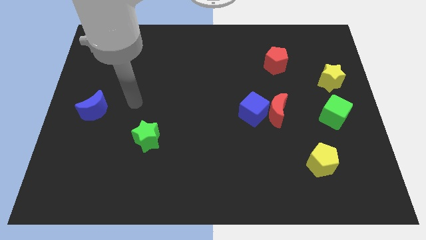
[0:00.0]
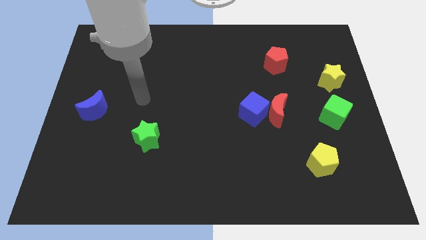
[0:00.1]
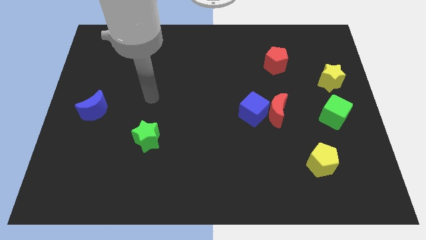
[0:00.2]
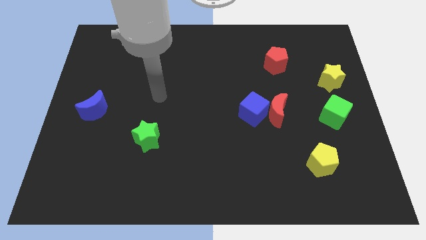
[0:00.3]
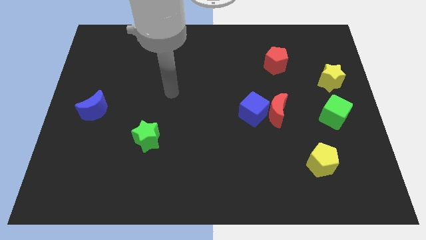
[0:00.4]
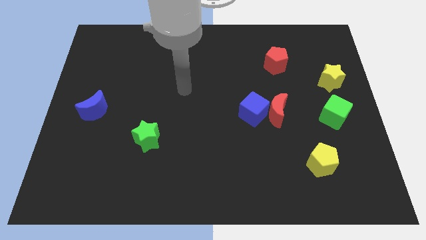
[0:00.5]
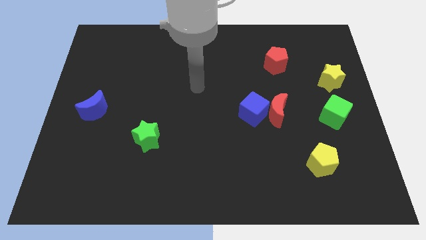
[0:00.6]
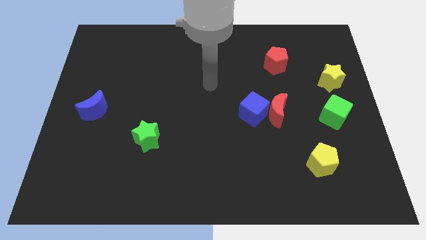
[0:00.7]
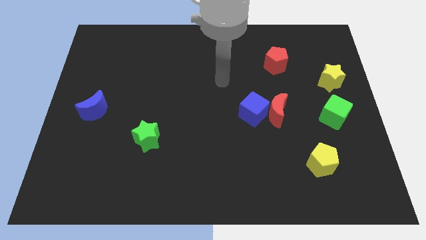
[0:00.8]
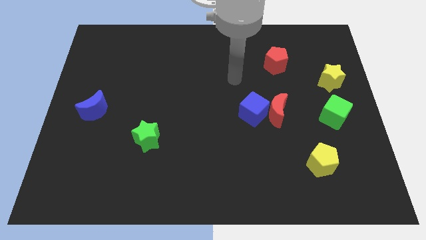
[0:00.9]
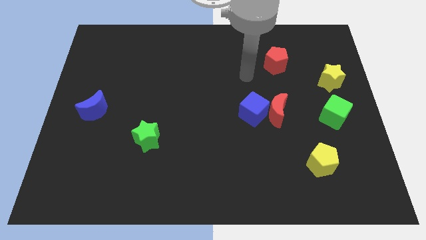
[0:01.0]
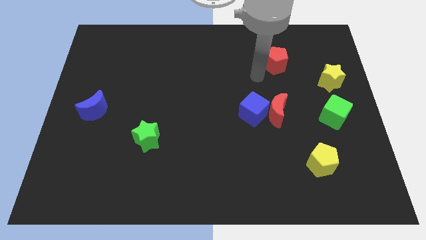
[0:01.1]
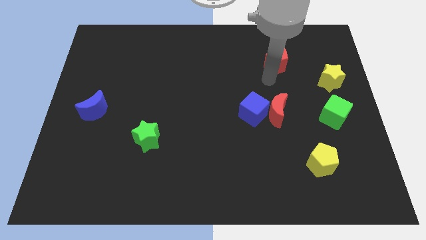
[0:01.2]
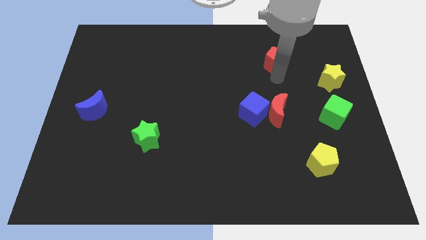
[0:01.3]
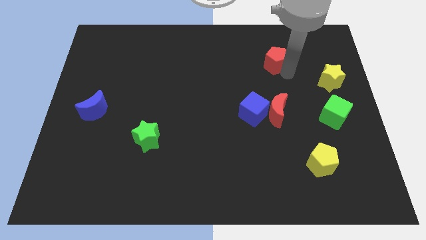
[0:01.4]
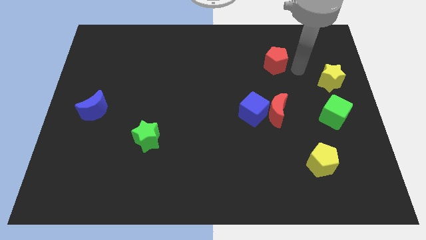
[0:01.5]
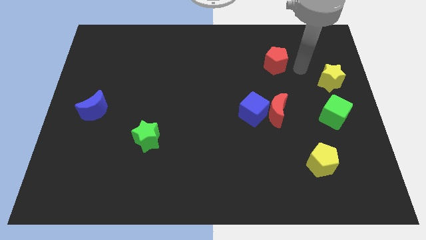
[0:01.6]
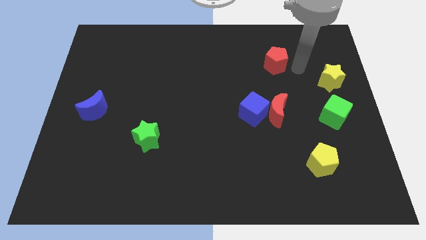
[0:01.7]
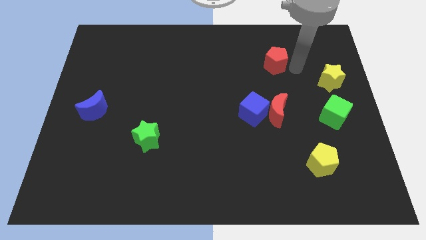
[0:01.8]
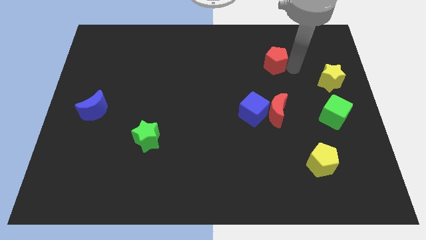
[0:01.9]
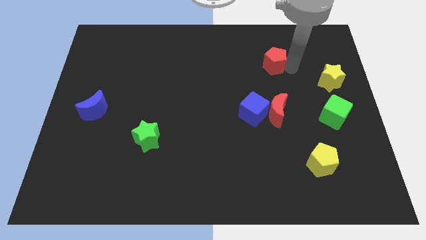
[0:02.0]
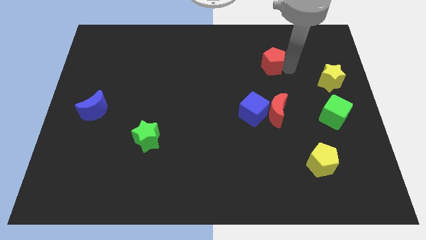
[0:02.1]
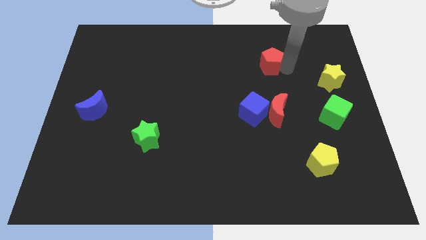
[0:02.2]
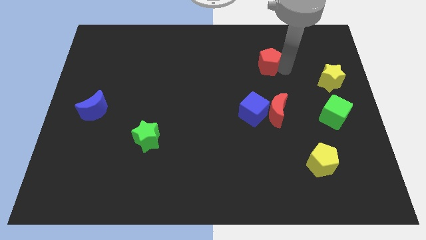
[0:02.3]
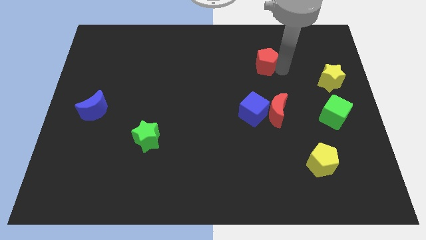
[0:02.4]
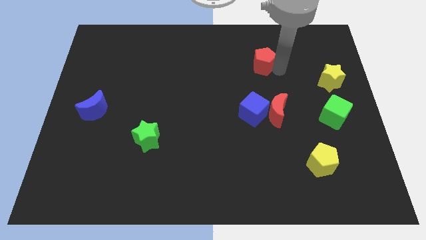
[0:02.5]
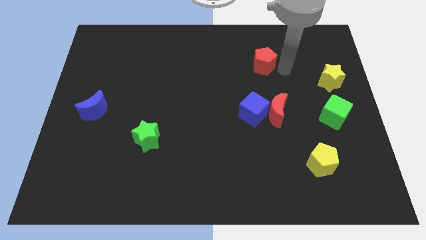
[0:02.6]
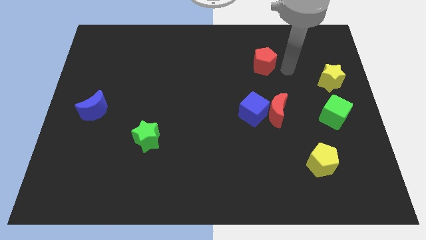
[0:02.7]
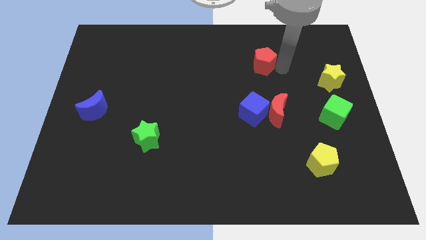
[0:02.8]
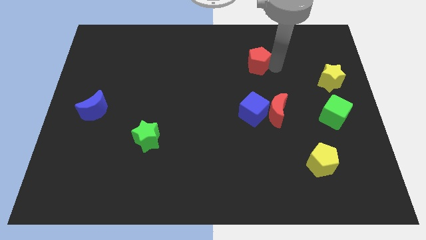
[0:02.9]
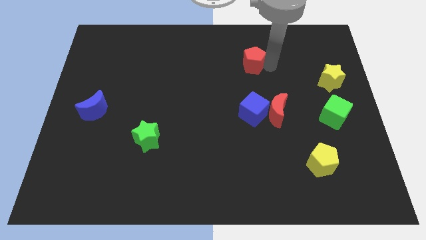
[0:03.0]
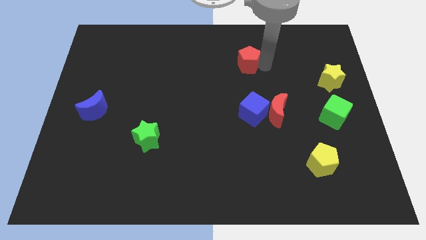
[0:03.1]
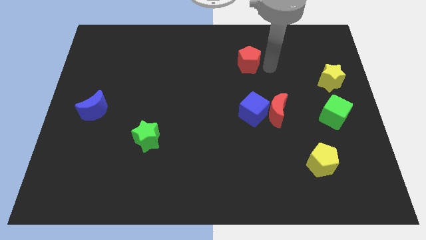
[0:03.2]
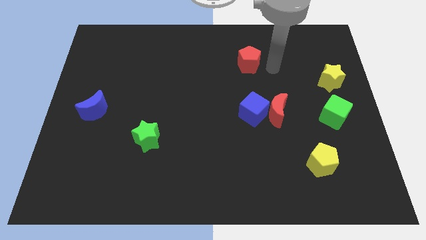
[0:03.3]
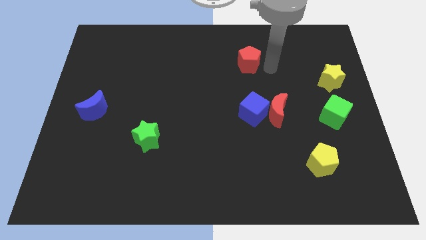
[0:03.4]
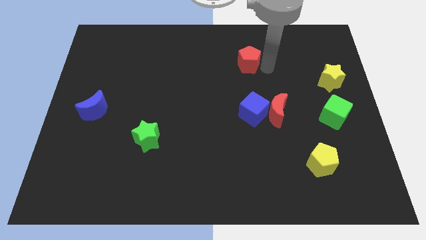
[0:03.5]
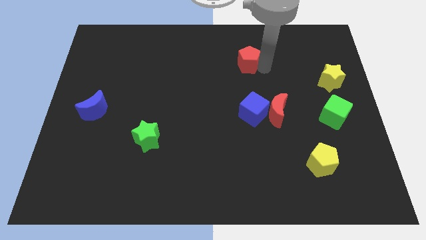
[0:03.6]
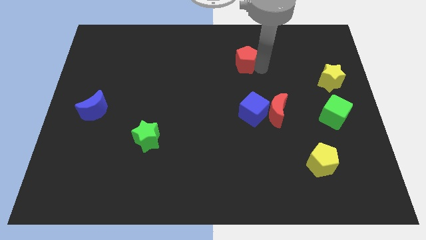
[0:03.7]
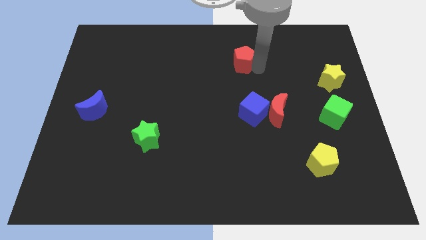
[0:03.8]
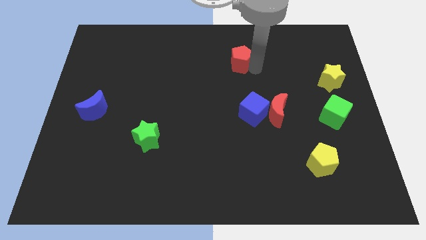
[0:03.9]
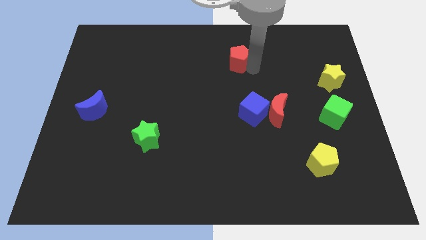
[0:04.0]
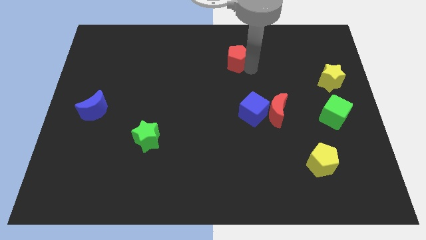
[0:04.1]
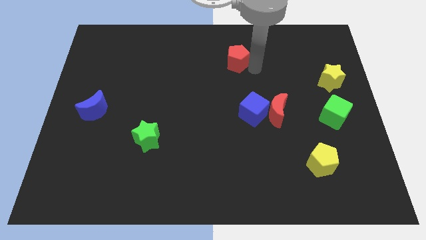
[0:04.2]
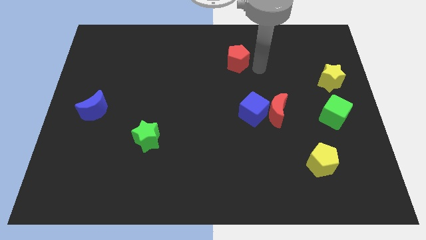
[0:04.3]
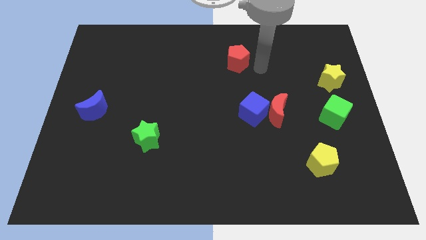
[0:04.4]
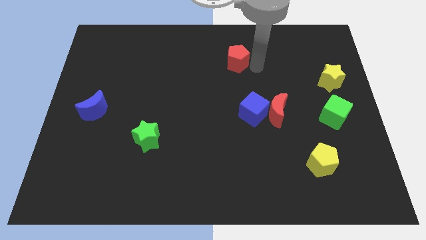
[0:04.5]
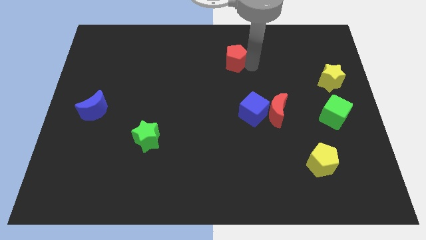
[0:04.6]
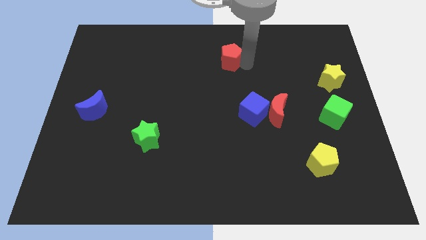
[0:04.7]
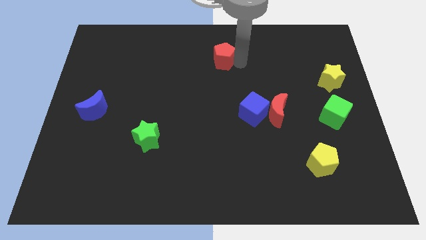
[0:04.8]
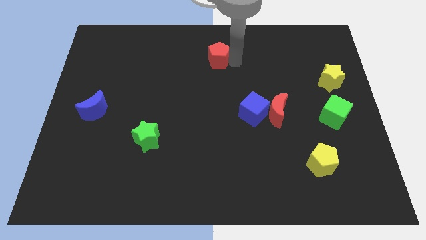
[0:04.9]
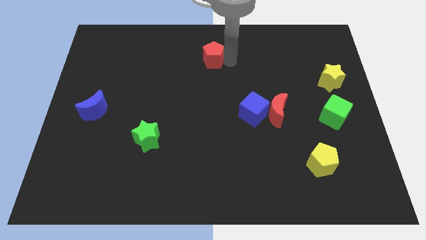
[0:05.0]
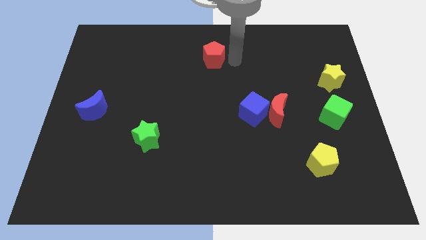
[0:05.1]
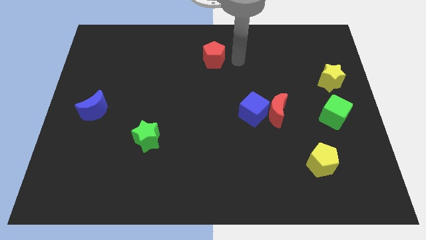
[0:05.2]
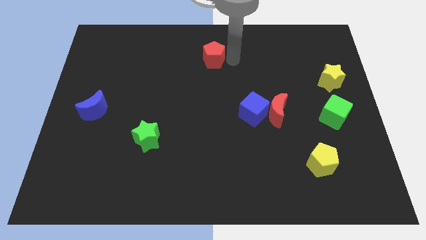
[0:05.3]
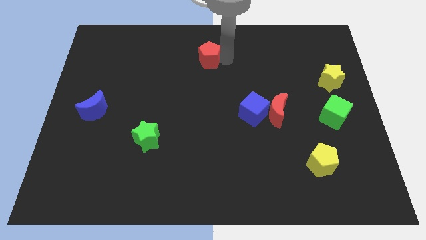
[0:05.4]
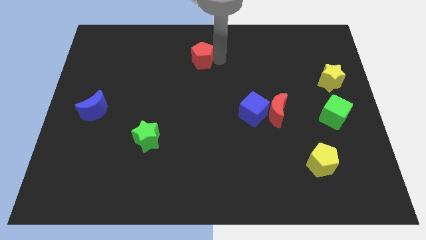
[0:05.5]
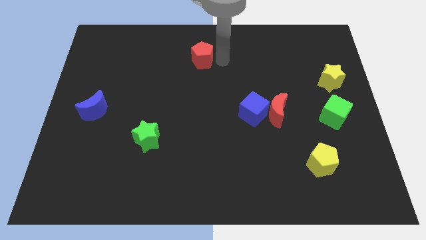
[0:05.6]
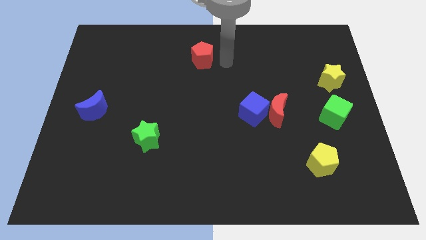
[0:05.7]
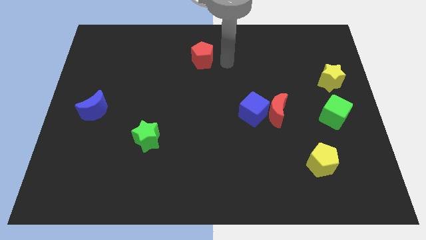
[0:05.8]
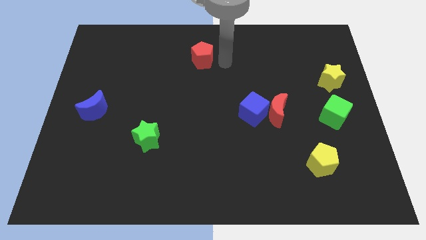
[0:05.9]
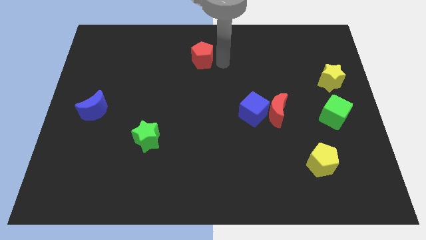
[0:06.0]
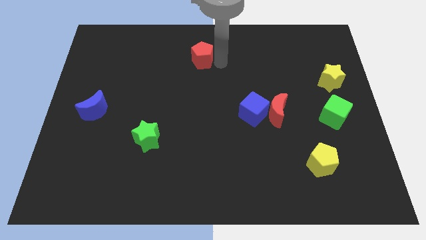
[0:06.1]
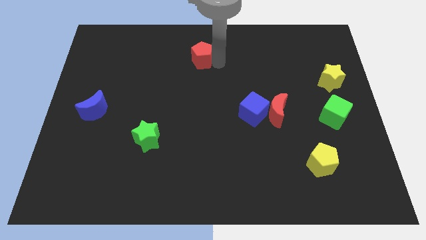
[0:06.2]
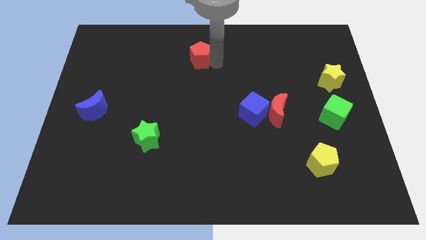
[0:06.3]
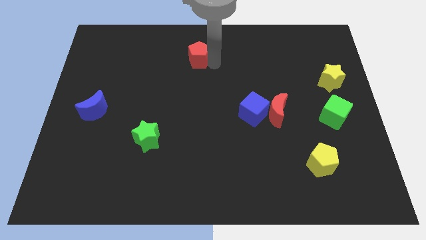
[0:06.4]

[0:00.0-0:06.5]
move the red pentagon to the left

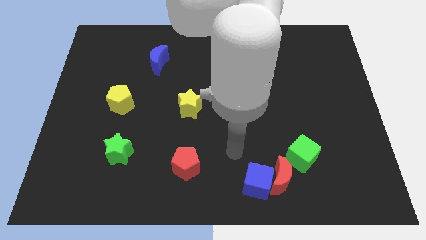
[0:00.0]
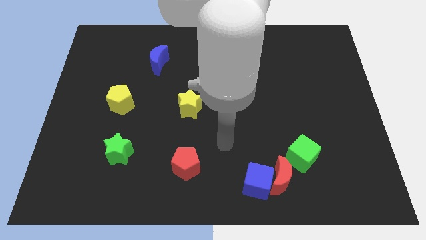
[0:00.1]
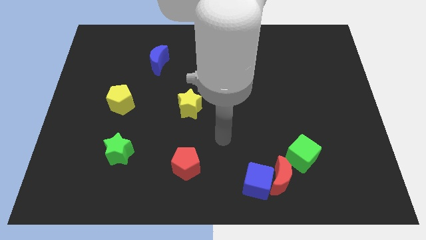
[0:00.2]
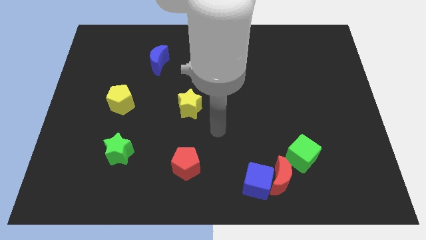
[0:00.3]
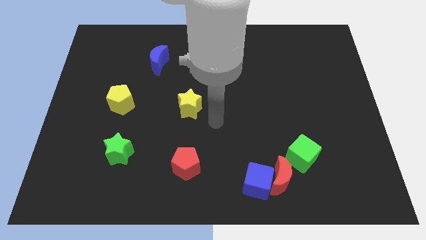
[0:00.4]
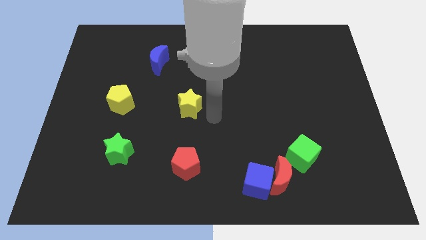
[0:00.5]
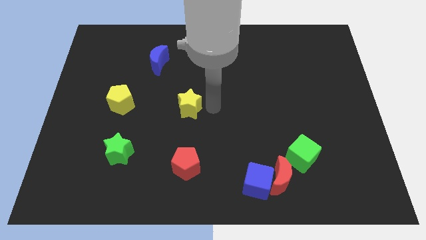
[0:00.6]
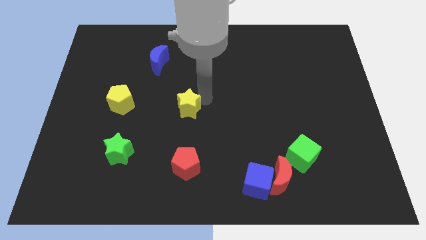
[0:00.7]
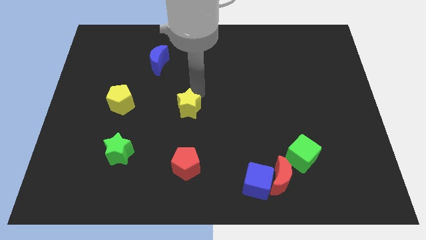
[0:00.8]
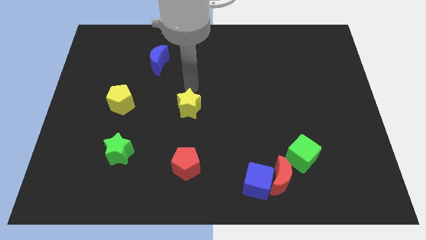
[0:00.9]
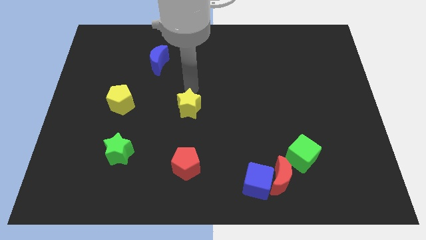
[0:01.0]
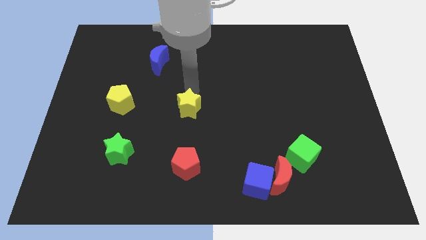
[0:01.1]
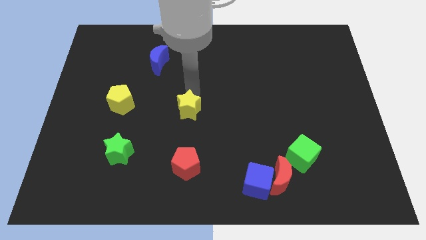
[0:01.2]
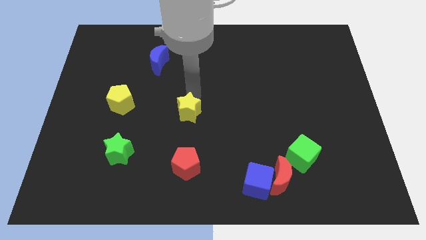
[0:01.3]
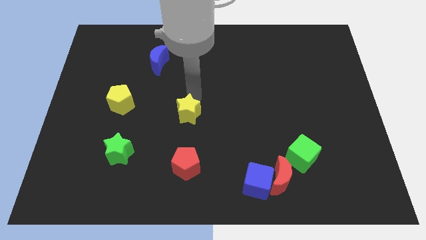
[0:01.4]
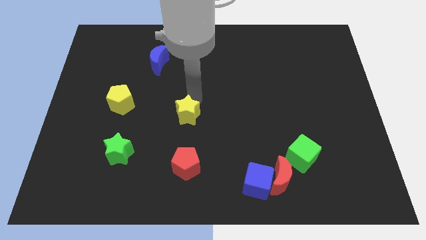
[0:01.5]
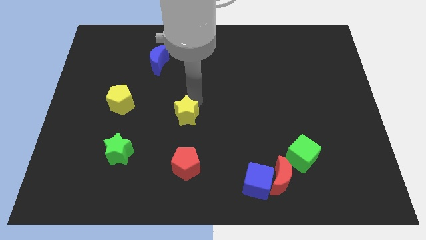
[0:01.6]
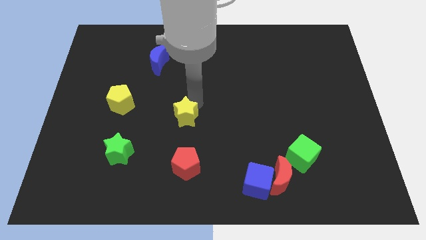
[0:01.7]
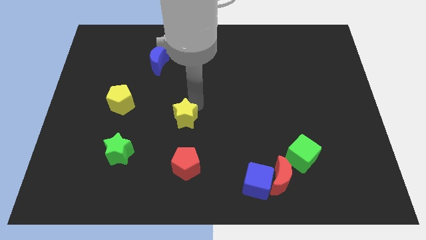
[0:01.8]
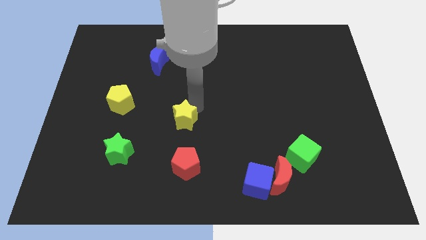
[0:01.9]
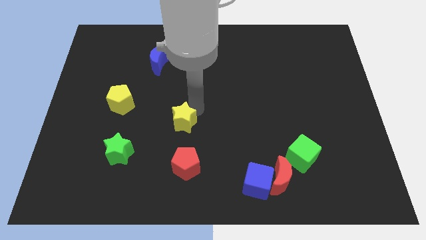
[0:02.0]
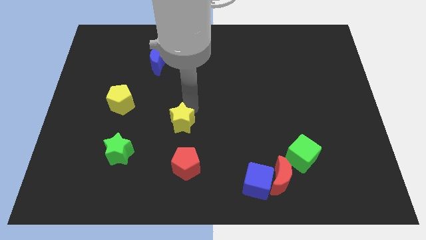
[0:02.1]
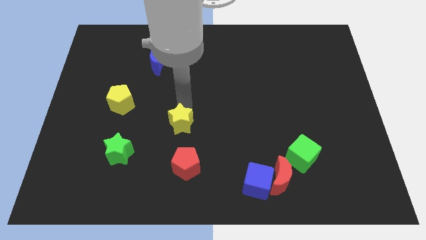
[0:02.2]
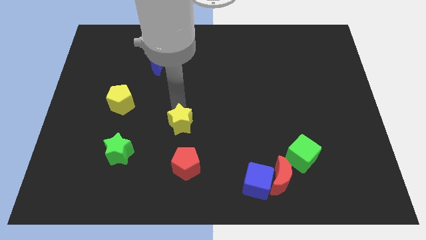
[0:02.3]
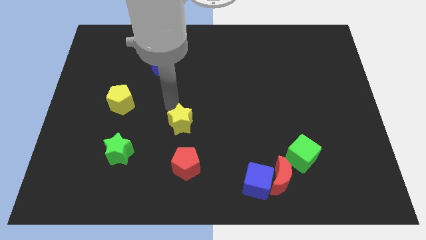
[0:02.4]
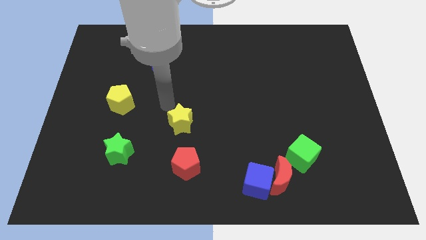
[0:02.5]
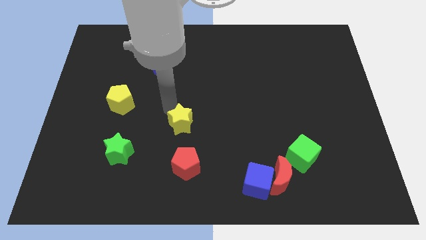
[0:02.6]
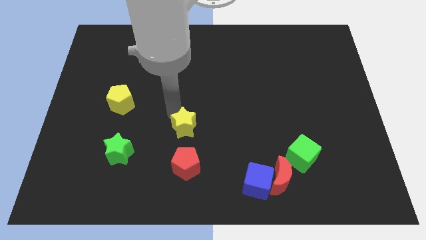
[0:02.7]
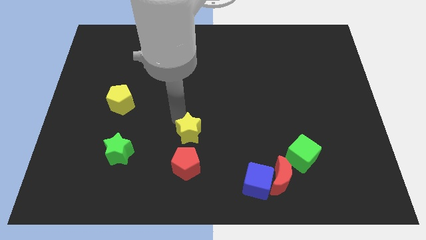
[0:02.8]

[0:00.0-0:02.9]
slightly push the yellow star downwards
